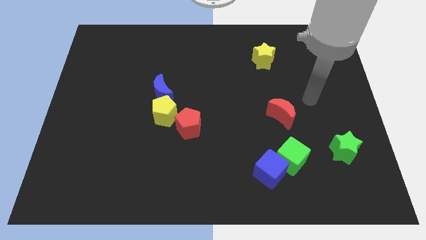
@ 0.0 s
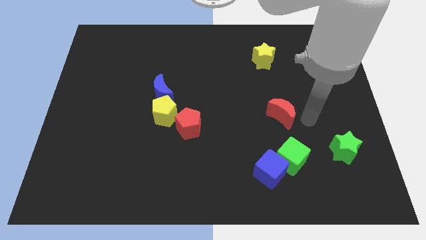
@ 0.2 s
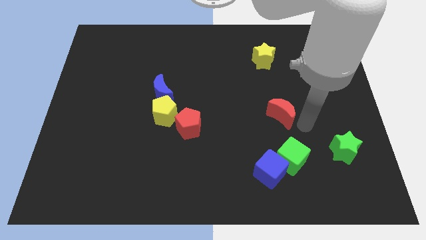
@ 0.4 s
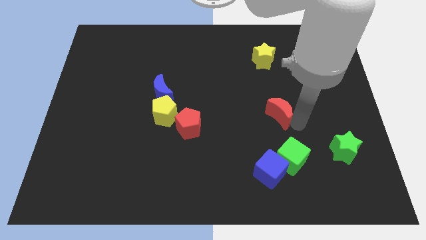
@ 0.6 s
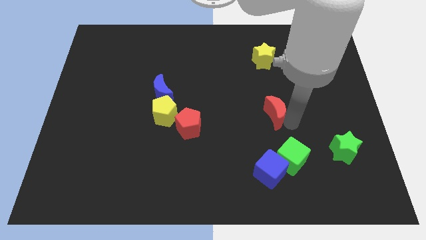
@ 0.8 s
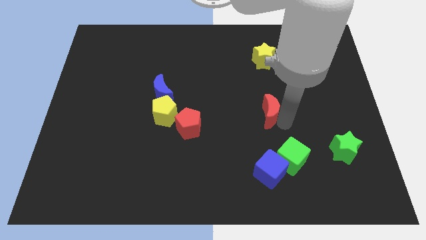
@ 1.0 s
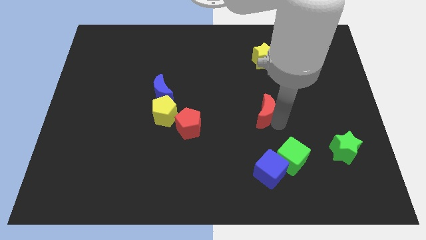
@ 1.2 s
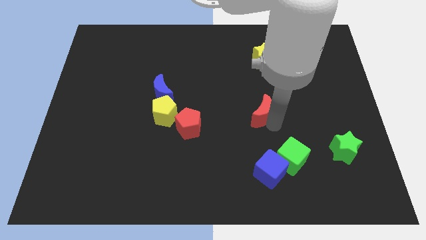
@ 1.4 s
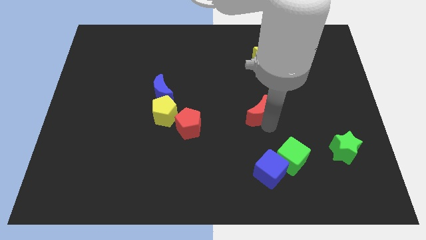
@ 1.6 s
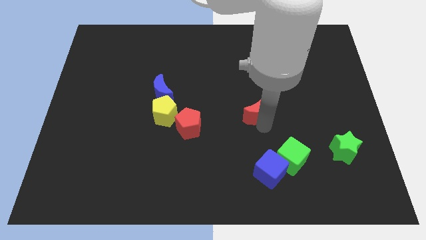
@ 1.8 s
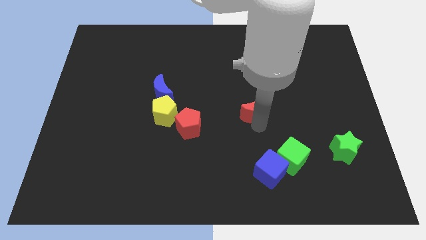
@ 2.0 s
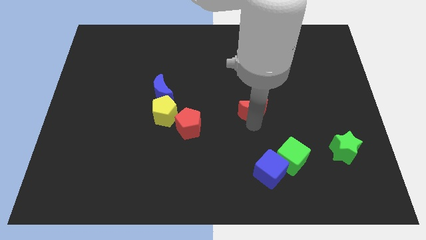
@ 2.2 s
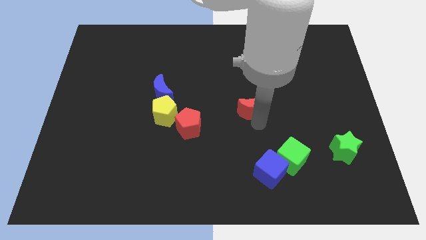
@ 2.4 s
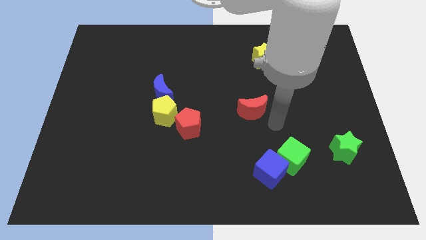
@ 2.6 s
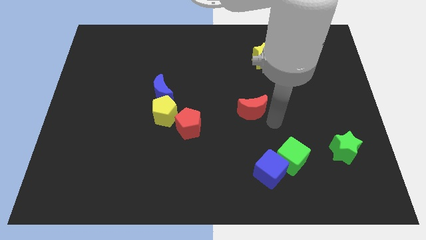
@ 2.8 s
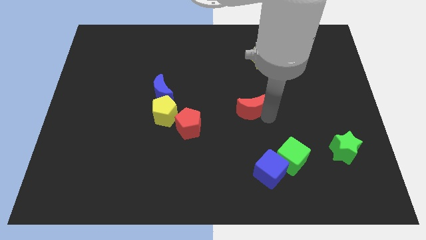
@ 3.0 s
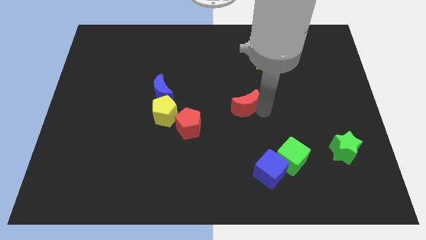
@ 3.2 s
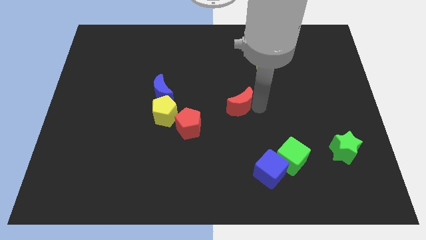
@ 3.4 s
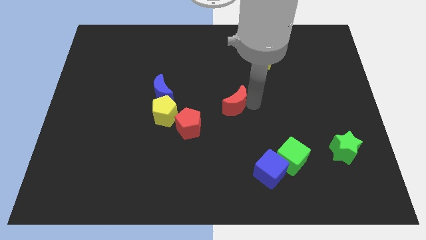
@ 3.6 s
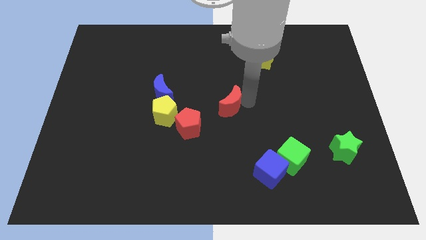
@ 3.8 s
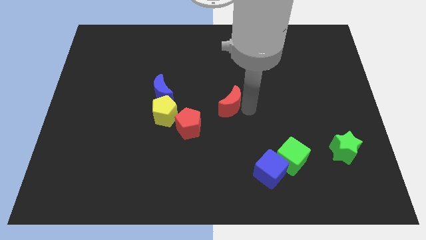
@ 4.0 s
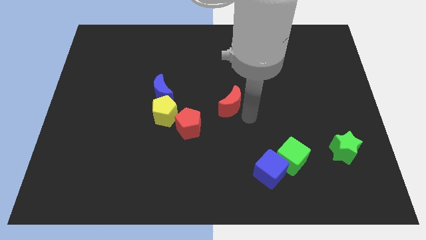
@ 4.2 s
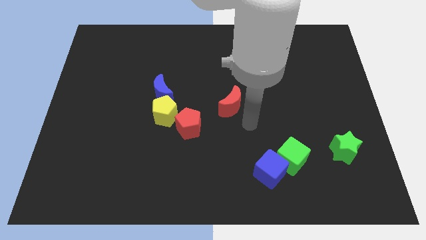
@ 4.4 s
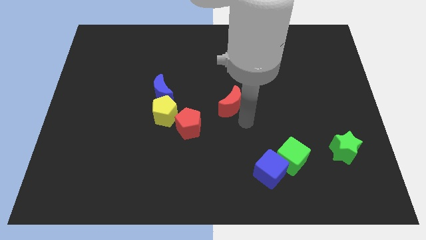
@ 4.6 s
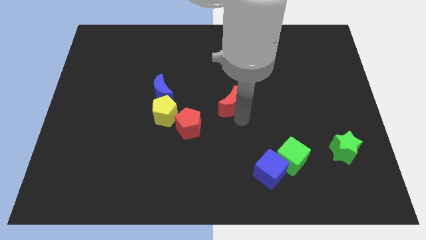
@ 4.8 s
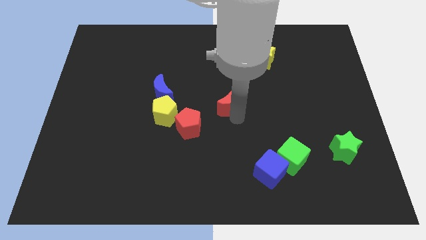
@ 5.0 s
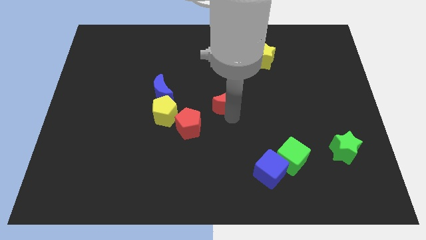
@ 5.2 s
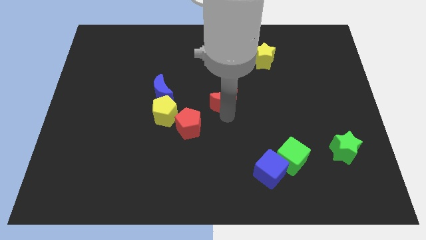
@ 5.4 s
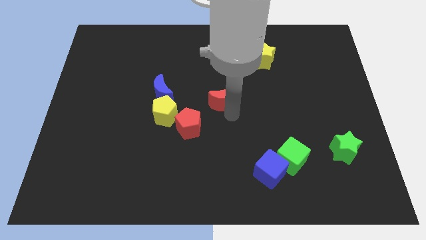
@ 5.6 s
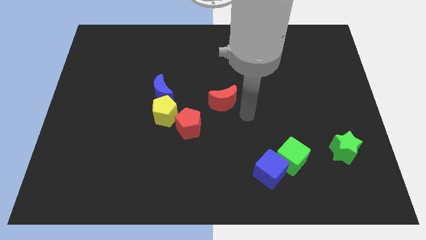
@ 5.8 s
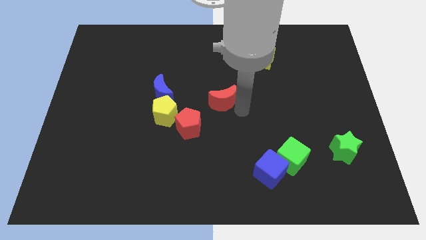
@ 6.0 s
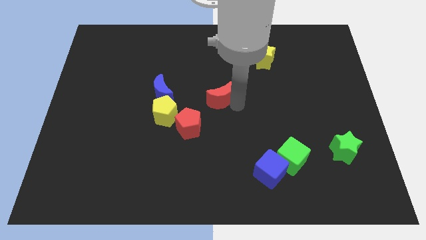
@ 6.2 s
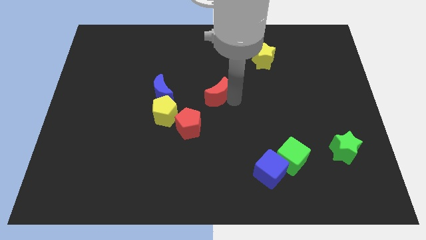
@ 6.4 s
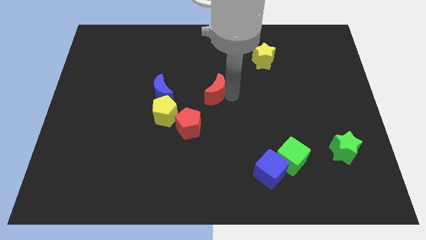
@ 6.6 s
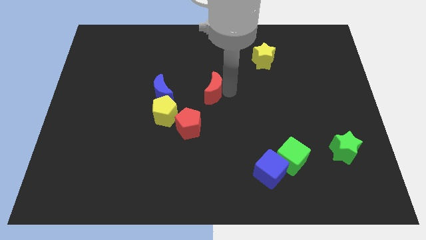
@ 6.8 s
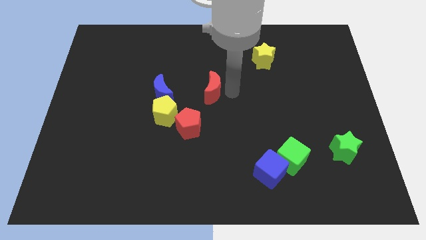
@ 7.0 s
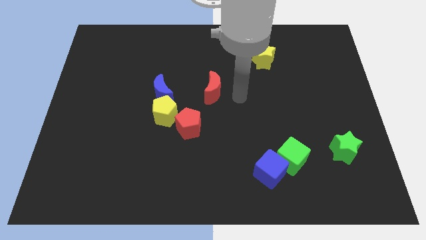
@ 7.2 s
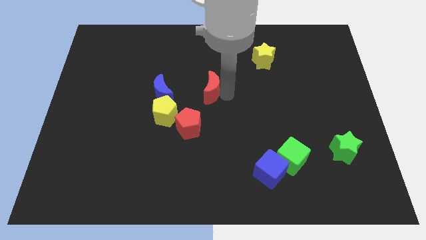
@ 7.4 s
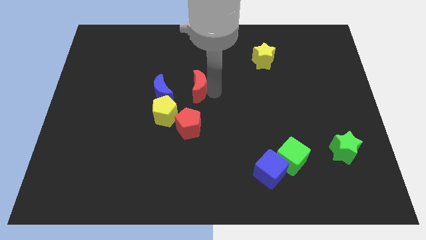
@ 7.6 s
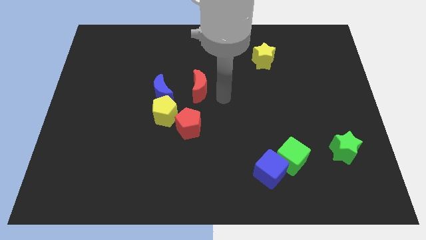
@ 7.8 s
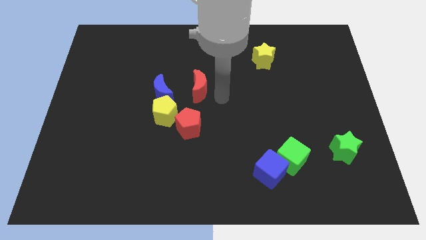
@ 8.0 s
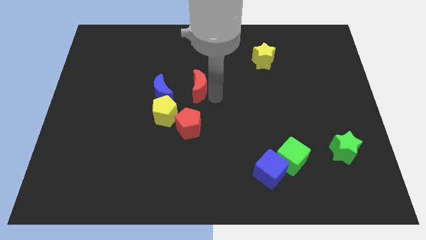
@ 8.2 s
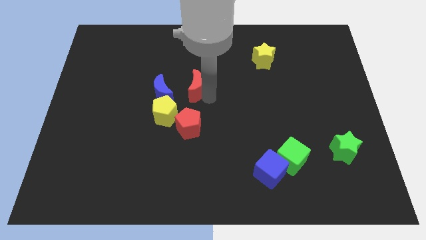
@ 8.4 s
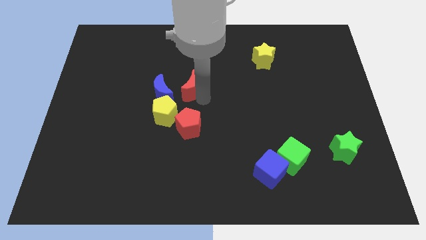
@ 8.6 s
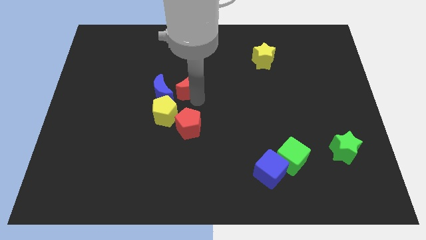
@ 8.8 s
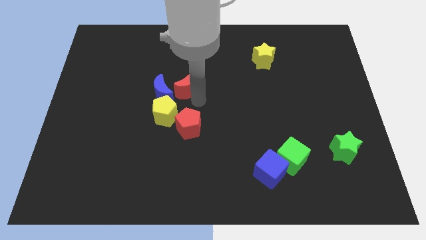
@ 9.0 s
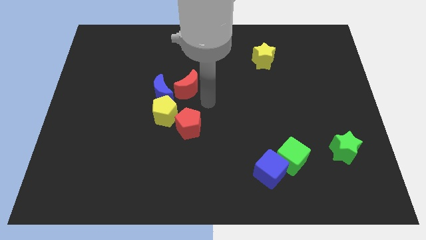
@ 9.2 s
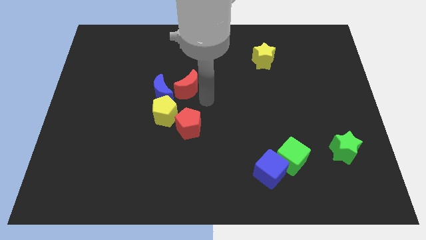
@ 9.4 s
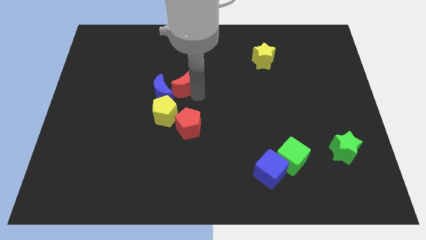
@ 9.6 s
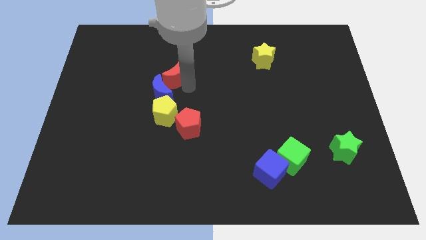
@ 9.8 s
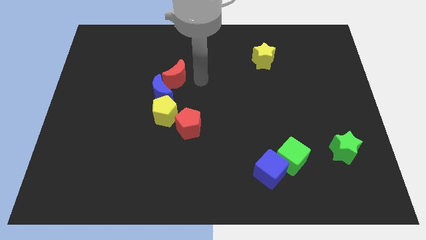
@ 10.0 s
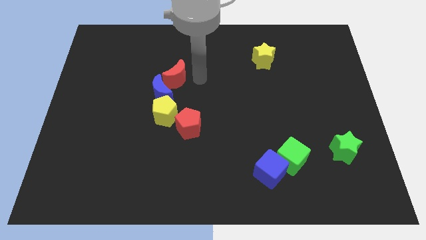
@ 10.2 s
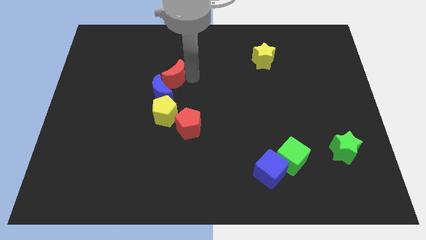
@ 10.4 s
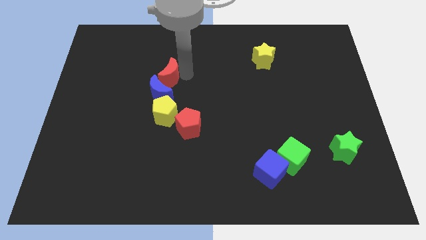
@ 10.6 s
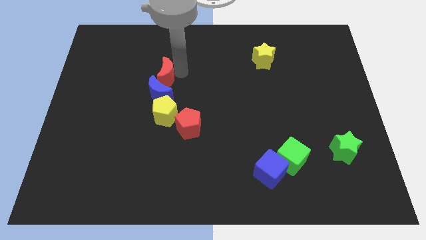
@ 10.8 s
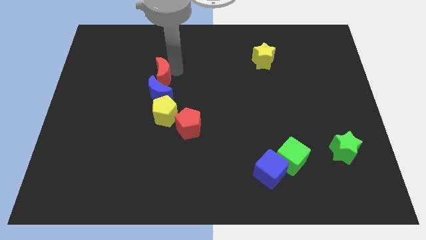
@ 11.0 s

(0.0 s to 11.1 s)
put the red moon to the top left of the blue moon

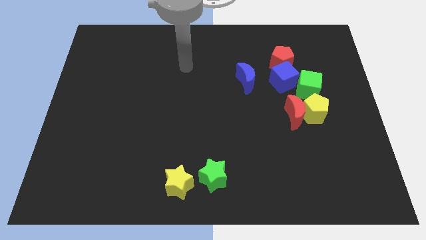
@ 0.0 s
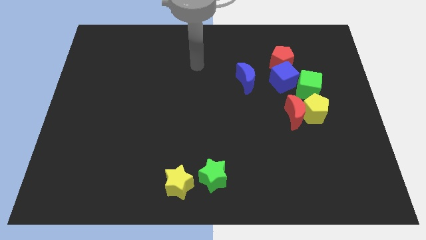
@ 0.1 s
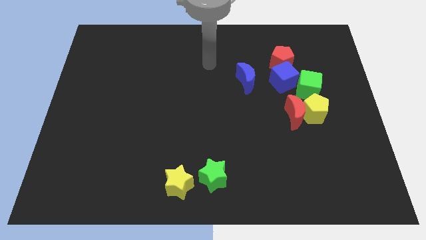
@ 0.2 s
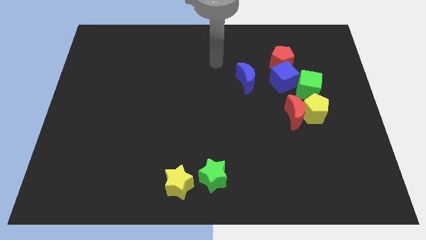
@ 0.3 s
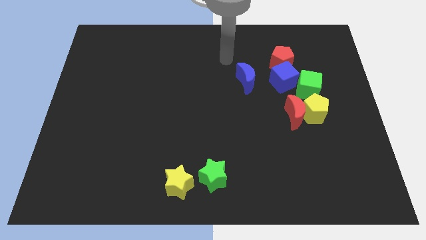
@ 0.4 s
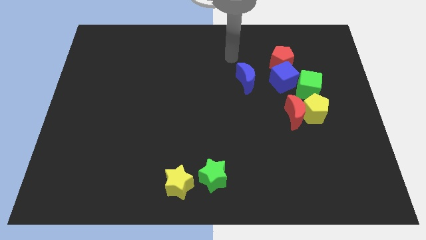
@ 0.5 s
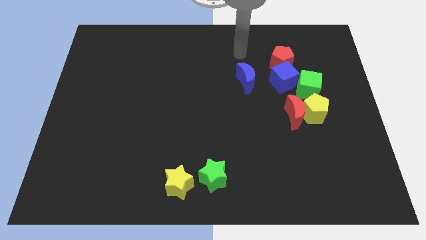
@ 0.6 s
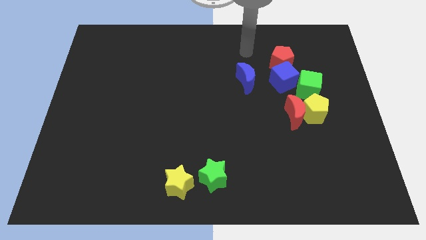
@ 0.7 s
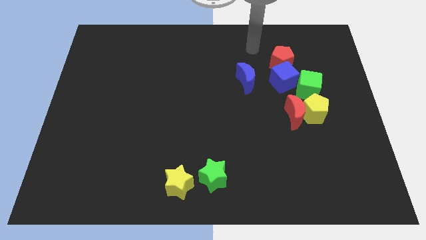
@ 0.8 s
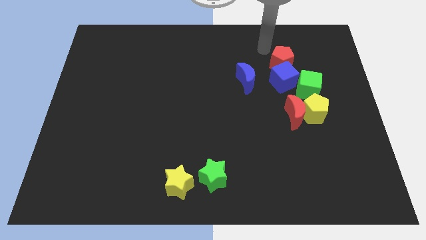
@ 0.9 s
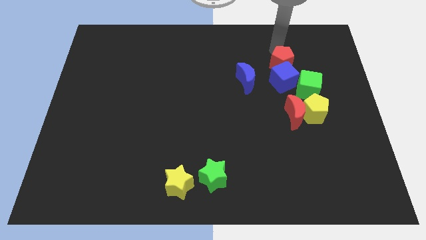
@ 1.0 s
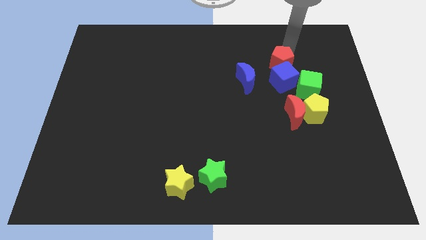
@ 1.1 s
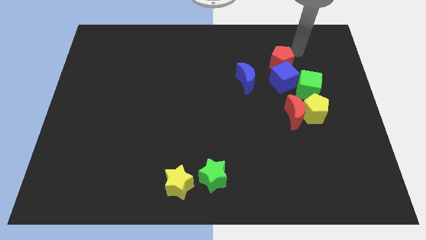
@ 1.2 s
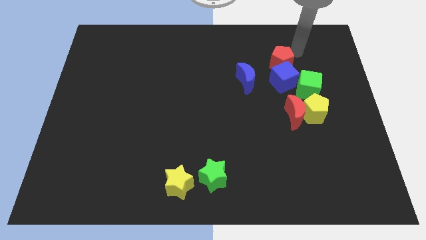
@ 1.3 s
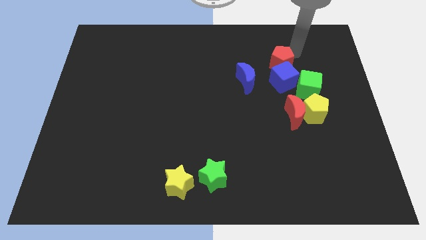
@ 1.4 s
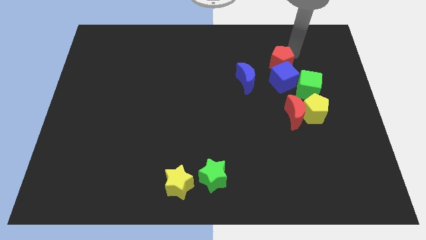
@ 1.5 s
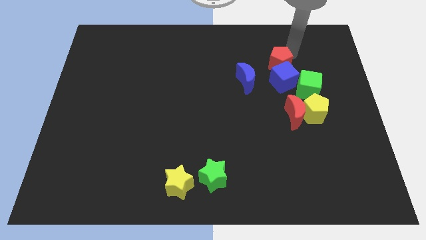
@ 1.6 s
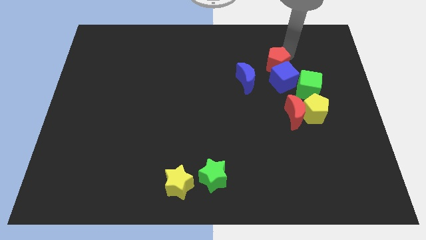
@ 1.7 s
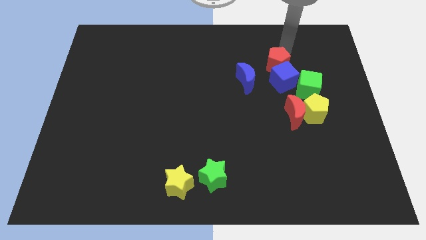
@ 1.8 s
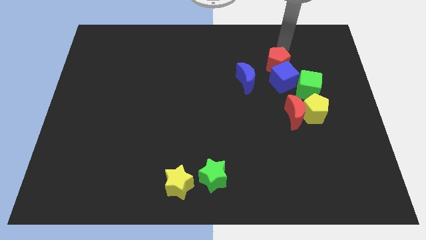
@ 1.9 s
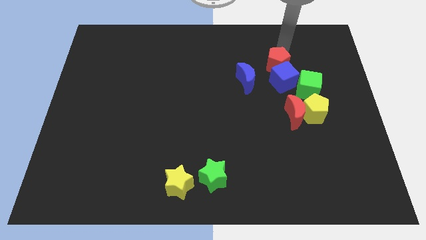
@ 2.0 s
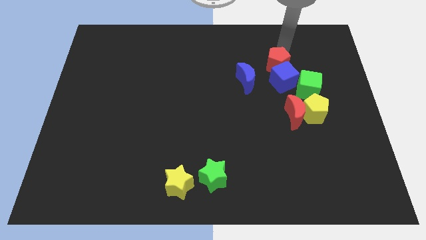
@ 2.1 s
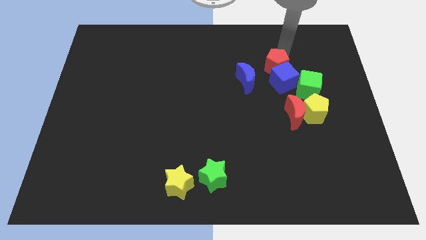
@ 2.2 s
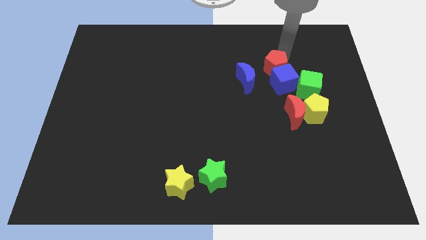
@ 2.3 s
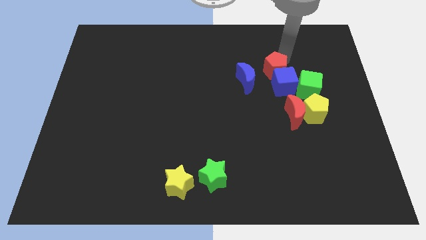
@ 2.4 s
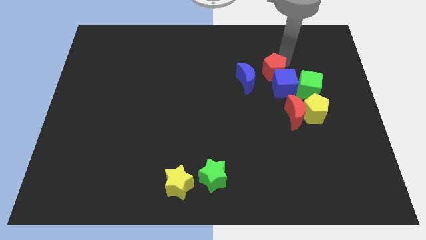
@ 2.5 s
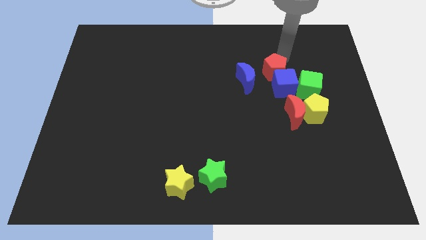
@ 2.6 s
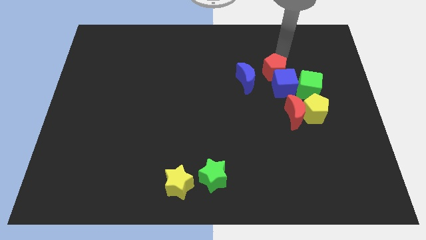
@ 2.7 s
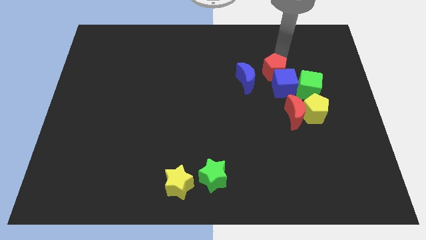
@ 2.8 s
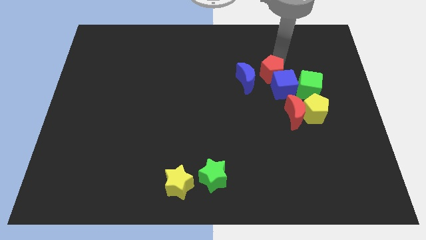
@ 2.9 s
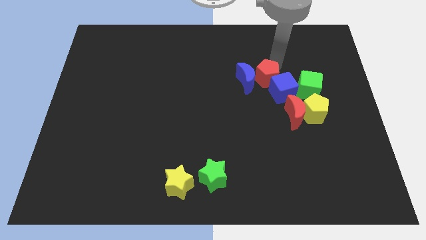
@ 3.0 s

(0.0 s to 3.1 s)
push the red pentagon to the left of the green cube
